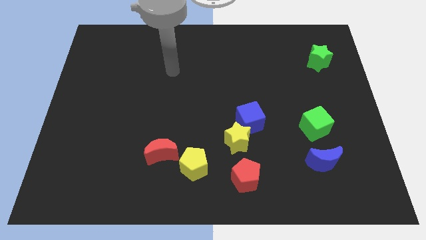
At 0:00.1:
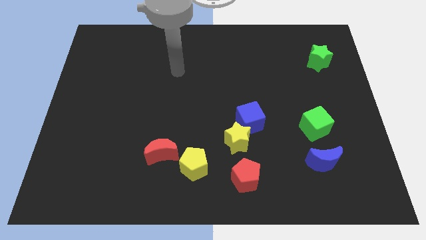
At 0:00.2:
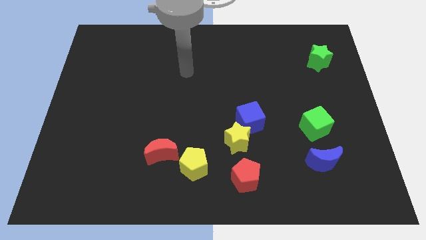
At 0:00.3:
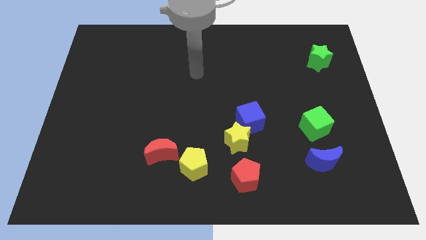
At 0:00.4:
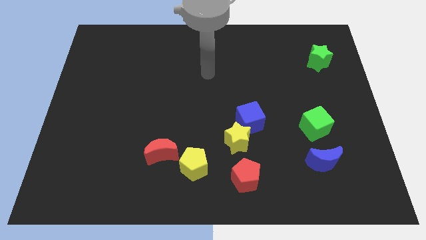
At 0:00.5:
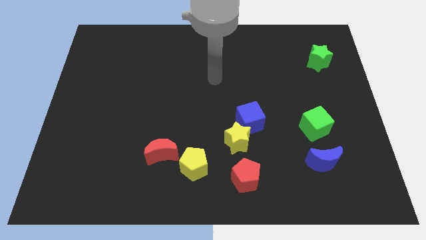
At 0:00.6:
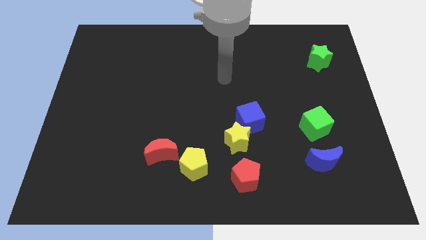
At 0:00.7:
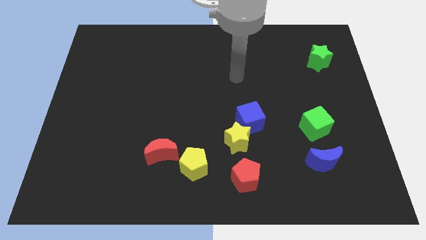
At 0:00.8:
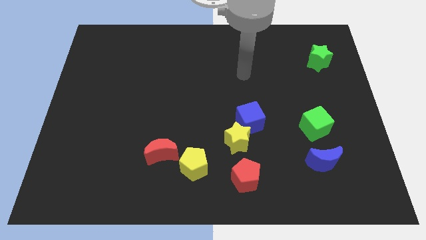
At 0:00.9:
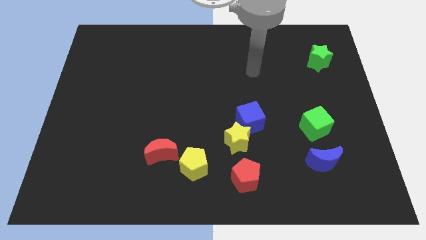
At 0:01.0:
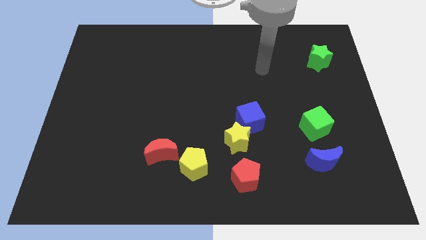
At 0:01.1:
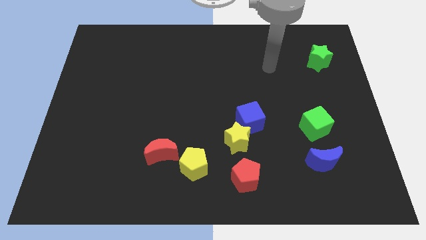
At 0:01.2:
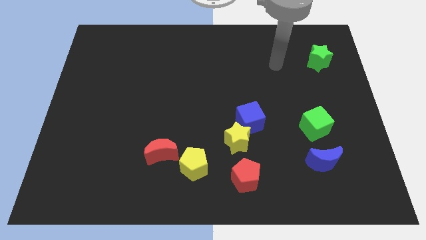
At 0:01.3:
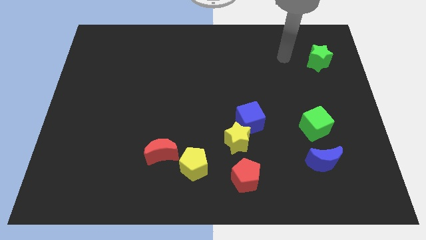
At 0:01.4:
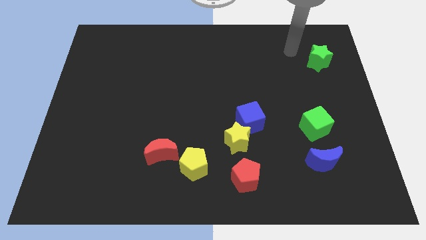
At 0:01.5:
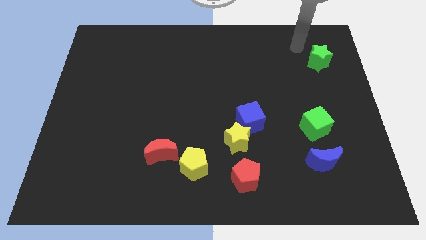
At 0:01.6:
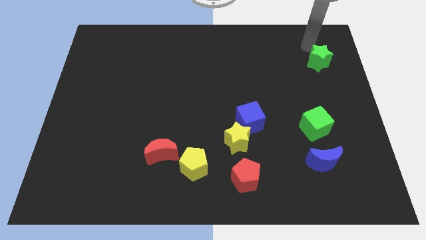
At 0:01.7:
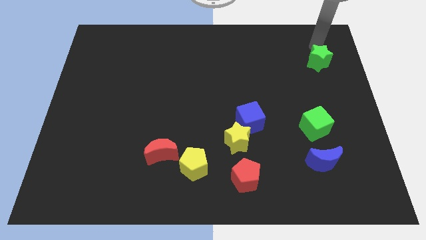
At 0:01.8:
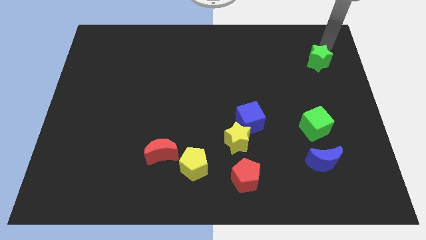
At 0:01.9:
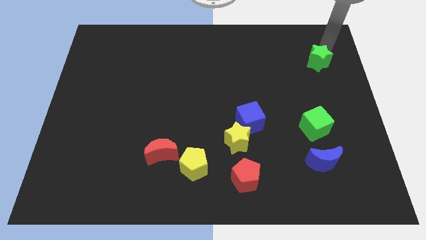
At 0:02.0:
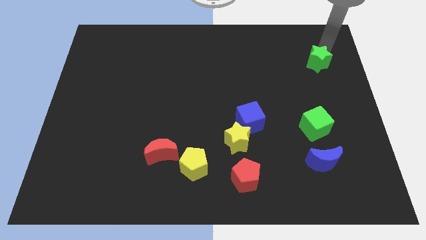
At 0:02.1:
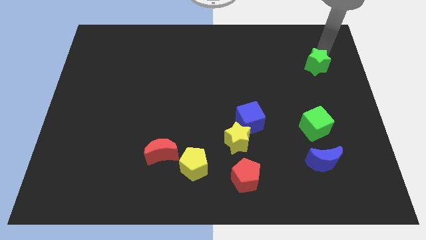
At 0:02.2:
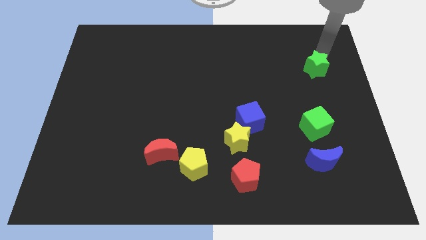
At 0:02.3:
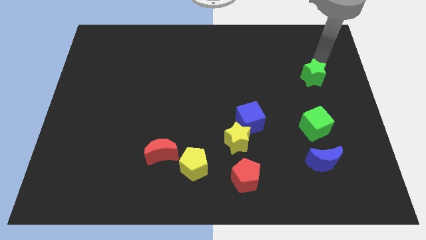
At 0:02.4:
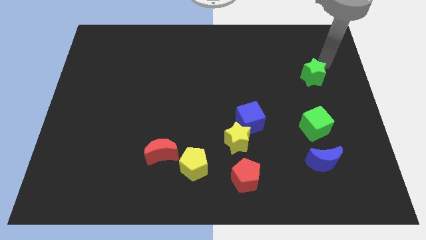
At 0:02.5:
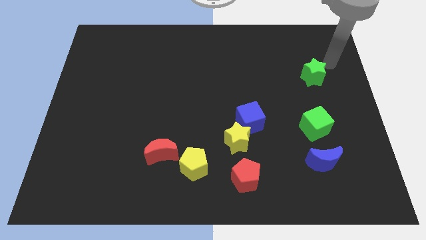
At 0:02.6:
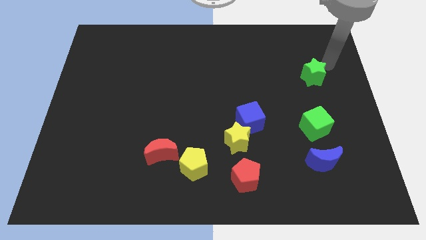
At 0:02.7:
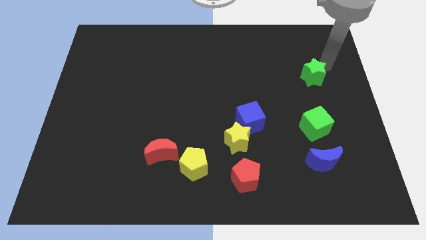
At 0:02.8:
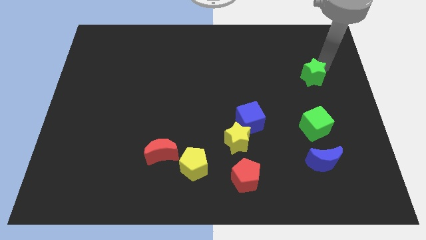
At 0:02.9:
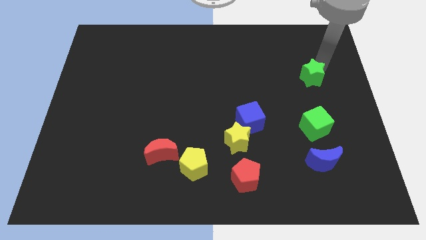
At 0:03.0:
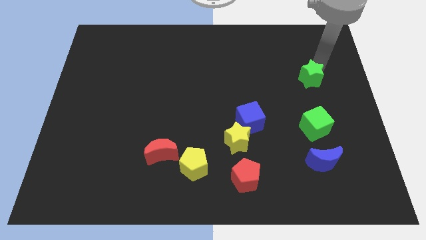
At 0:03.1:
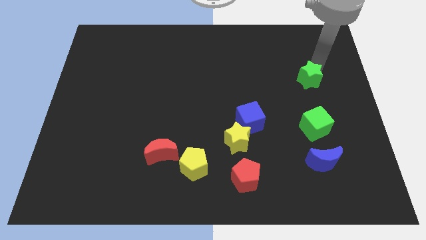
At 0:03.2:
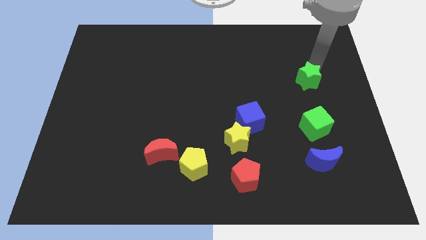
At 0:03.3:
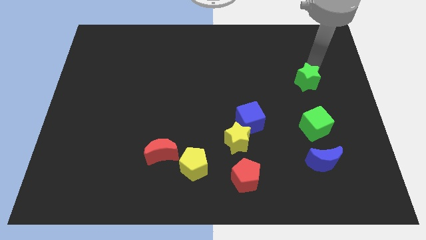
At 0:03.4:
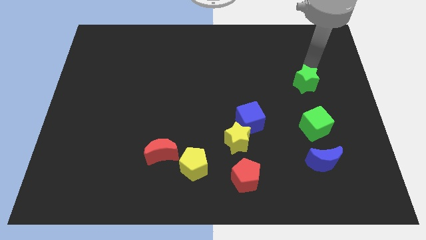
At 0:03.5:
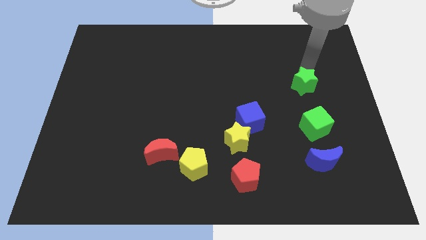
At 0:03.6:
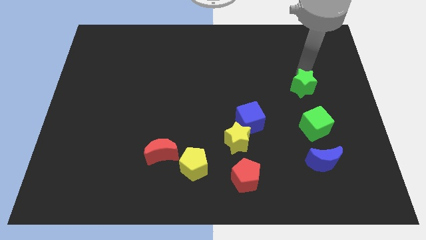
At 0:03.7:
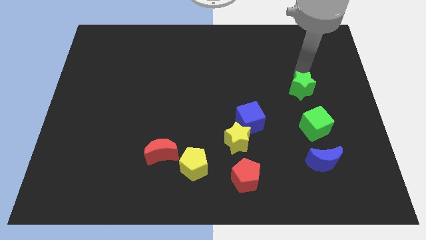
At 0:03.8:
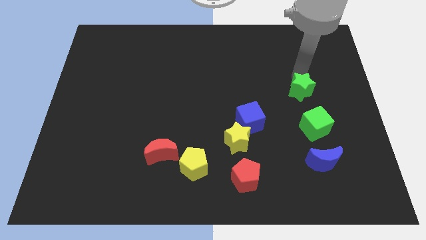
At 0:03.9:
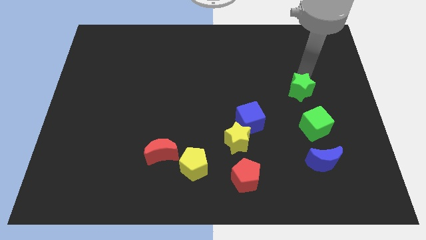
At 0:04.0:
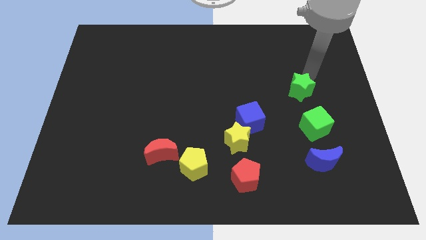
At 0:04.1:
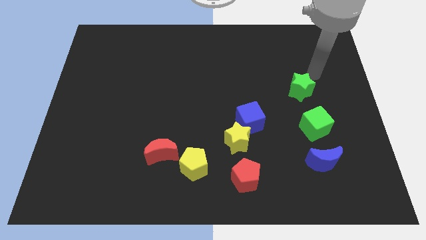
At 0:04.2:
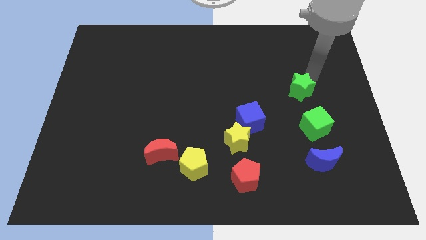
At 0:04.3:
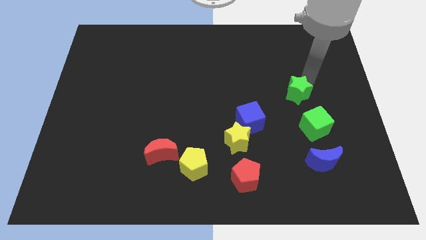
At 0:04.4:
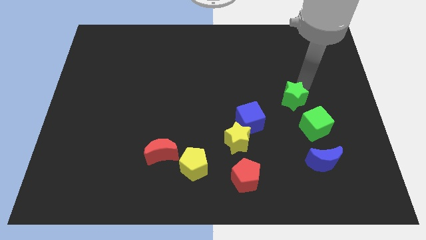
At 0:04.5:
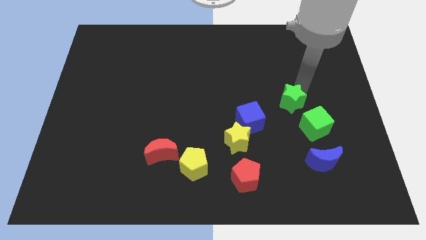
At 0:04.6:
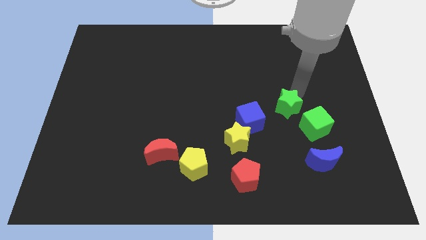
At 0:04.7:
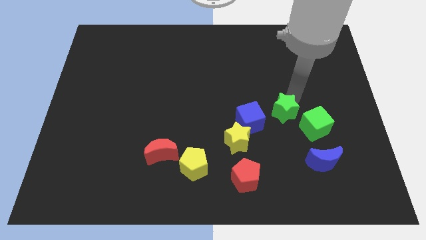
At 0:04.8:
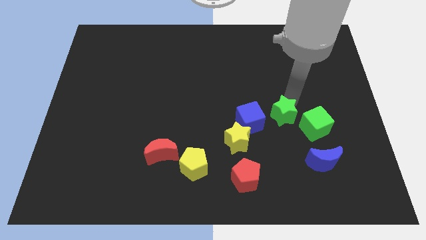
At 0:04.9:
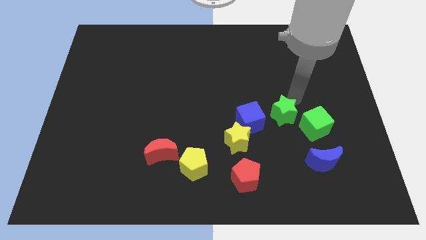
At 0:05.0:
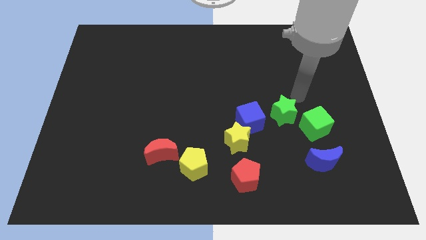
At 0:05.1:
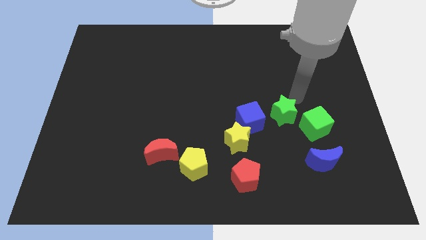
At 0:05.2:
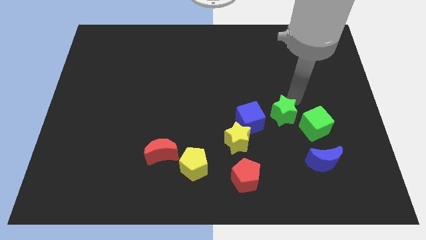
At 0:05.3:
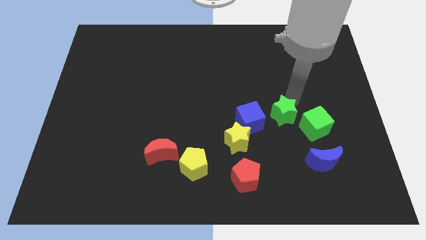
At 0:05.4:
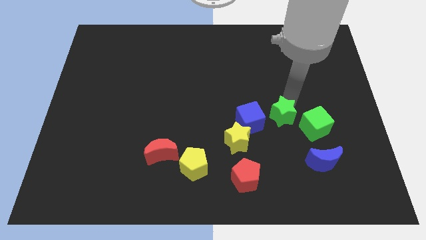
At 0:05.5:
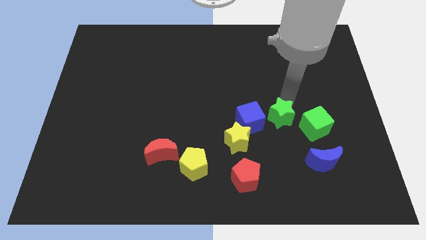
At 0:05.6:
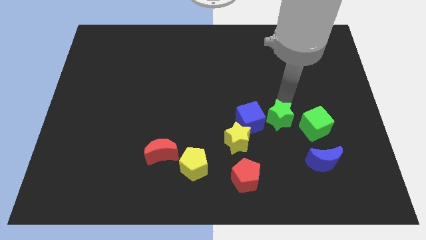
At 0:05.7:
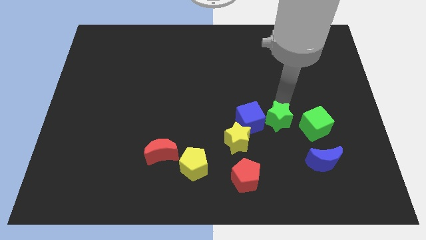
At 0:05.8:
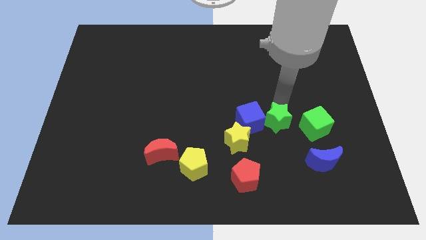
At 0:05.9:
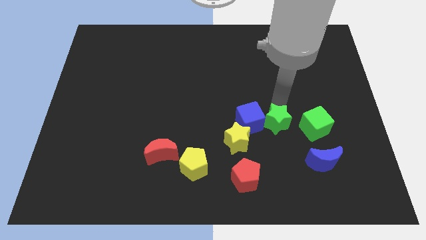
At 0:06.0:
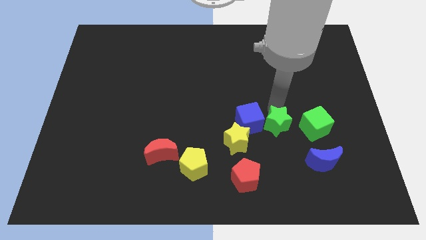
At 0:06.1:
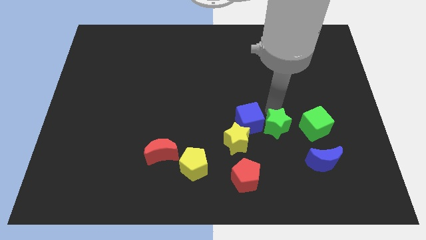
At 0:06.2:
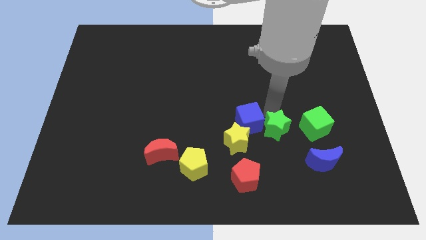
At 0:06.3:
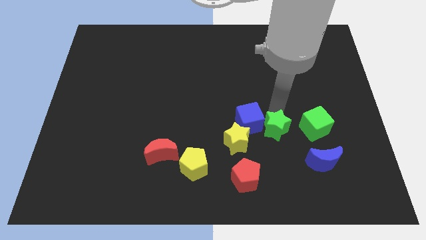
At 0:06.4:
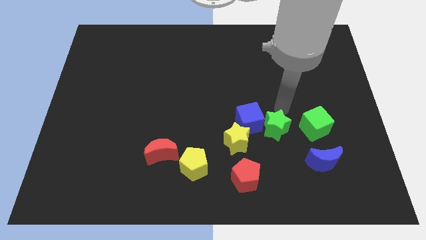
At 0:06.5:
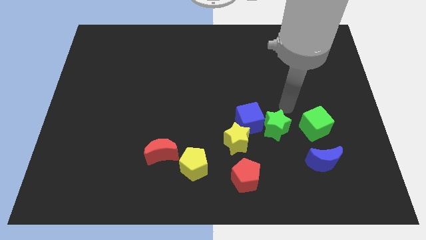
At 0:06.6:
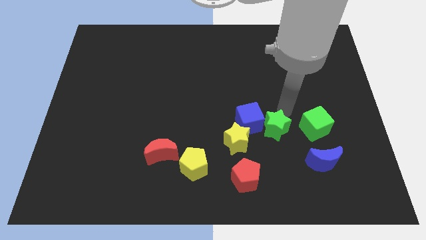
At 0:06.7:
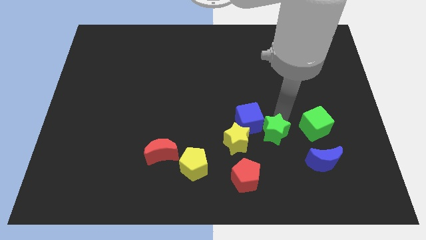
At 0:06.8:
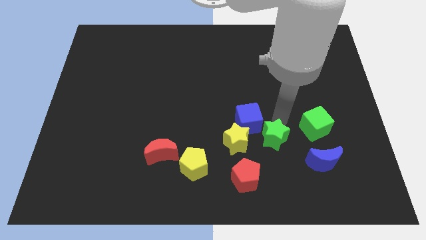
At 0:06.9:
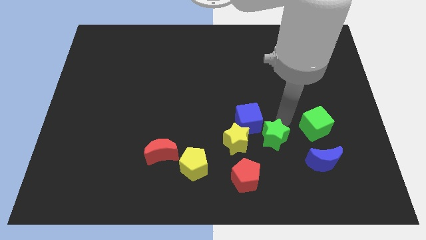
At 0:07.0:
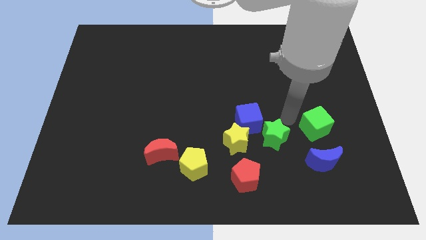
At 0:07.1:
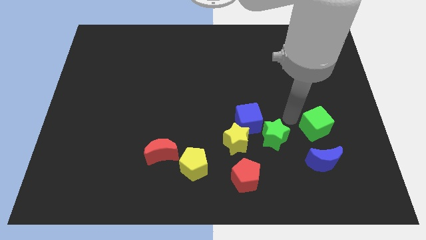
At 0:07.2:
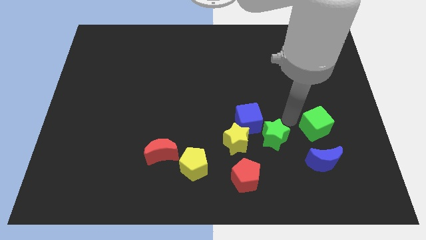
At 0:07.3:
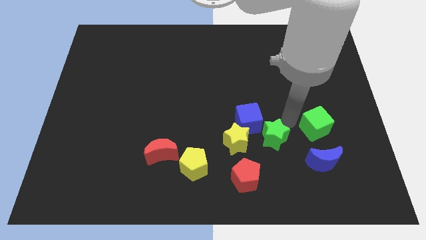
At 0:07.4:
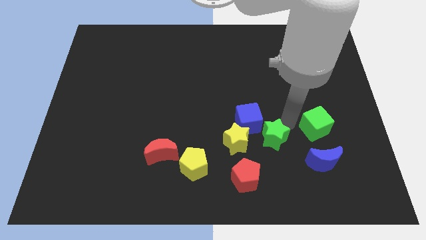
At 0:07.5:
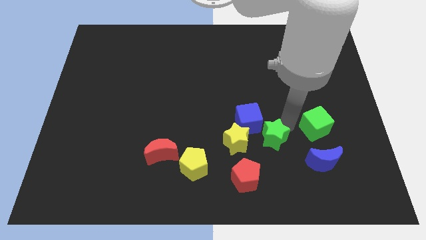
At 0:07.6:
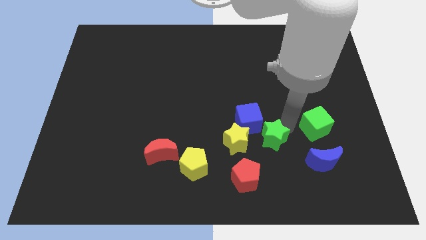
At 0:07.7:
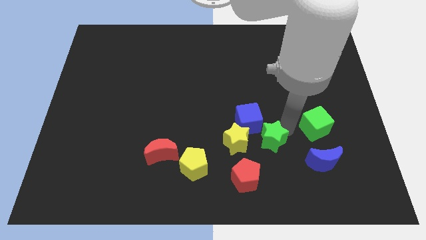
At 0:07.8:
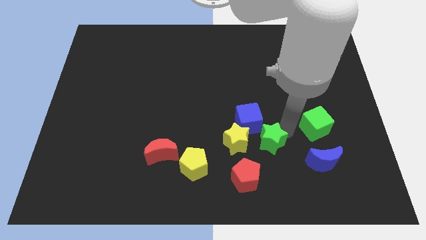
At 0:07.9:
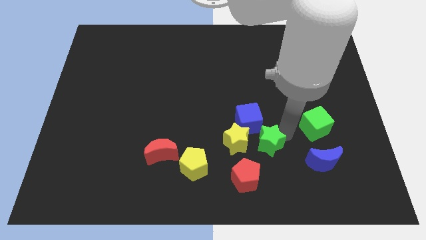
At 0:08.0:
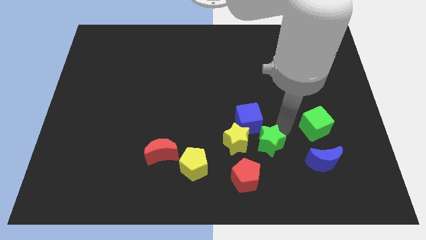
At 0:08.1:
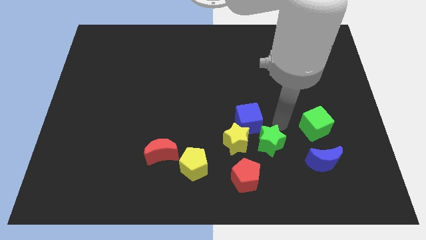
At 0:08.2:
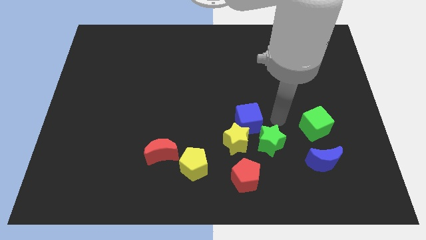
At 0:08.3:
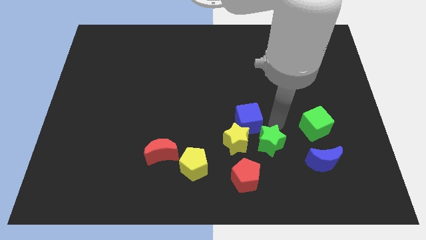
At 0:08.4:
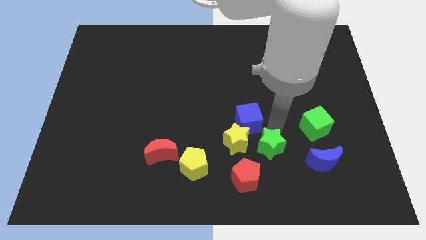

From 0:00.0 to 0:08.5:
move the green star diagonally down and to the right of the yellow star
